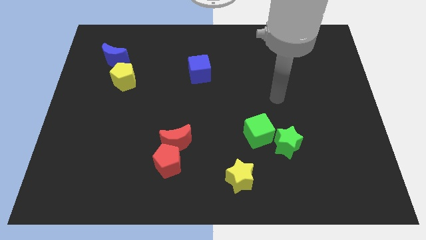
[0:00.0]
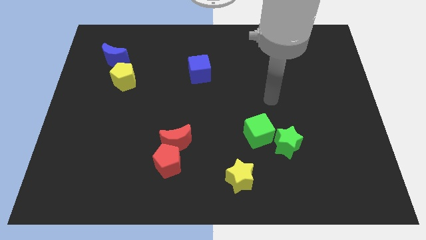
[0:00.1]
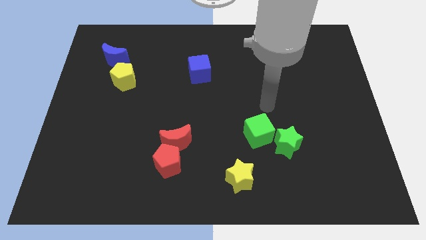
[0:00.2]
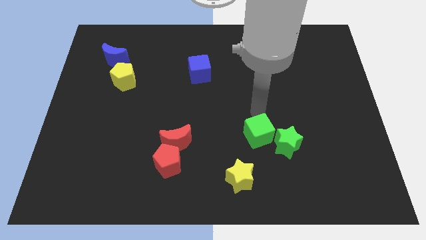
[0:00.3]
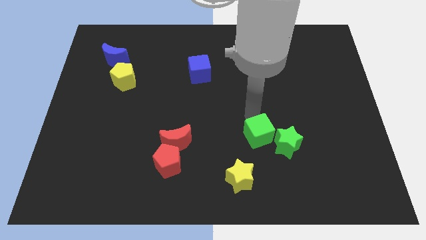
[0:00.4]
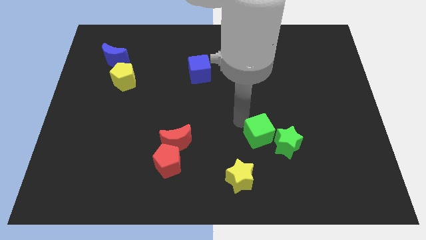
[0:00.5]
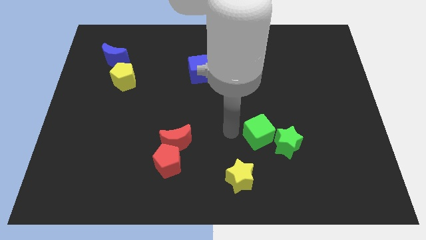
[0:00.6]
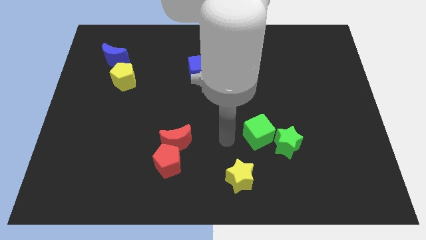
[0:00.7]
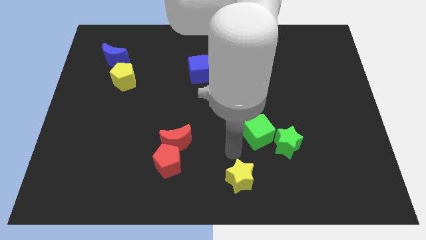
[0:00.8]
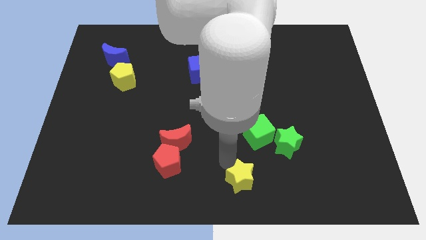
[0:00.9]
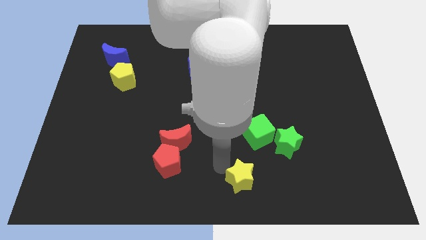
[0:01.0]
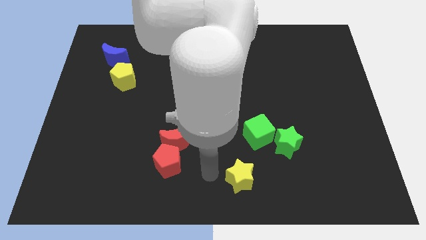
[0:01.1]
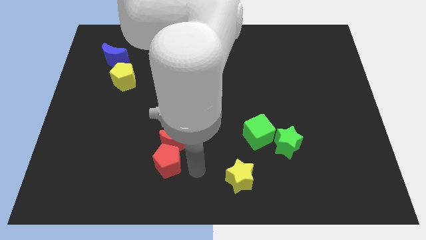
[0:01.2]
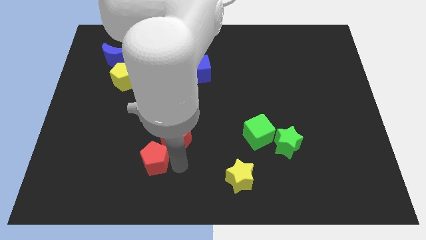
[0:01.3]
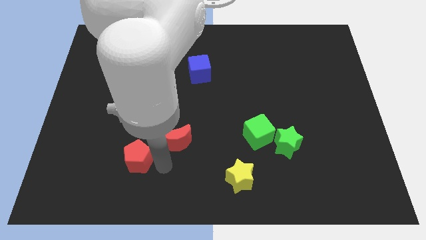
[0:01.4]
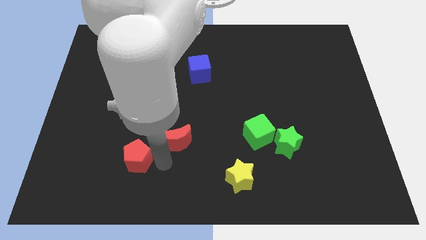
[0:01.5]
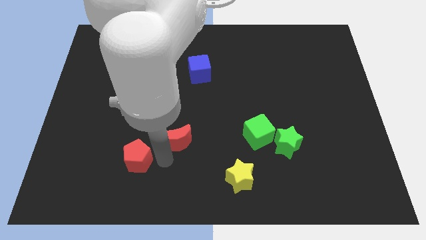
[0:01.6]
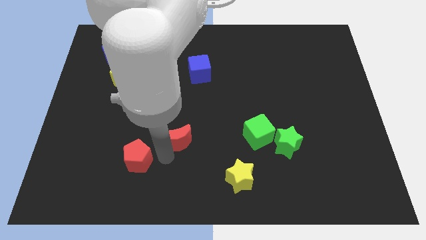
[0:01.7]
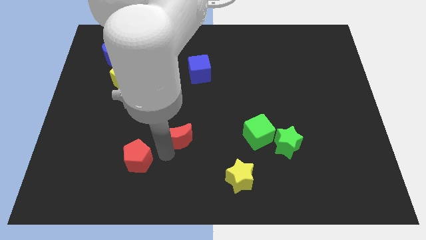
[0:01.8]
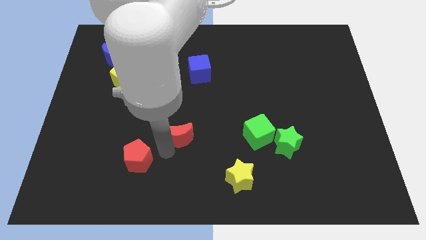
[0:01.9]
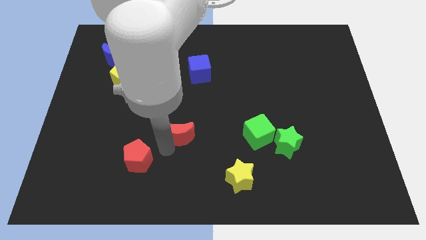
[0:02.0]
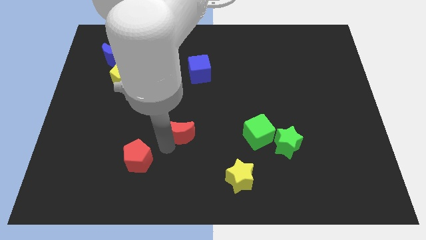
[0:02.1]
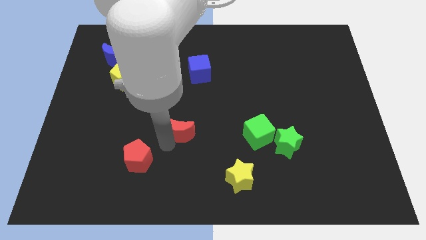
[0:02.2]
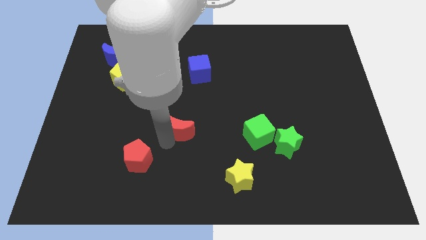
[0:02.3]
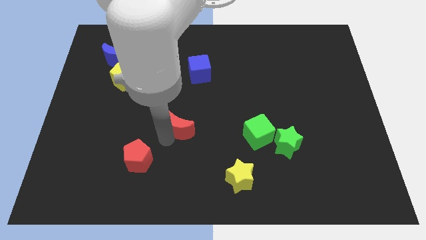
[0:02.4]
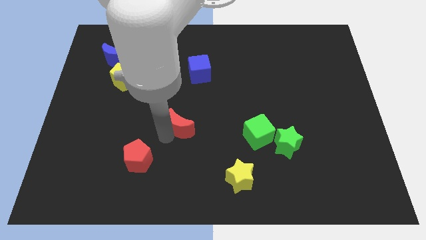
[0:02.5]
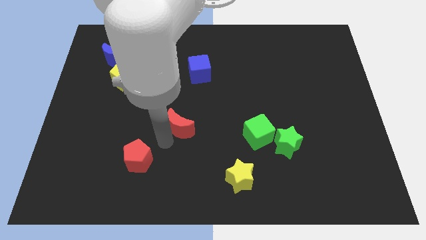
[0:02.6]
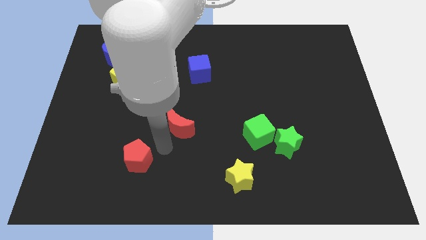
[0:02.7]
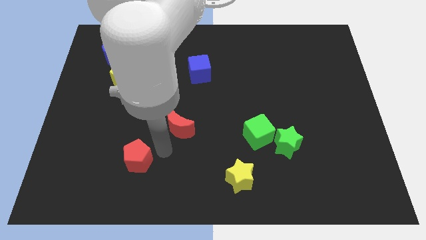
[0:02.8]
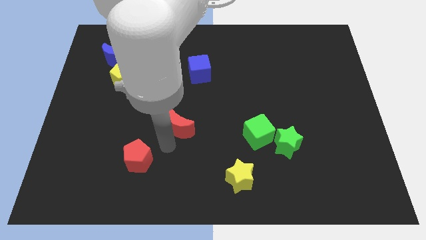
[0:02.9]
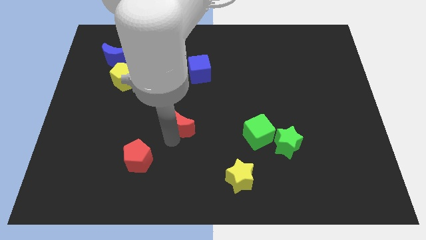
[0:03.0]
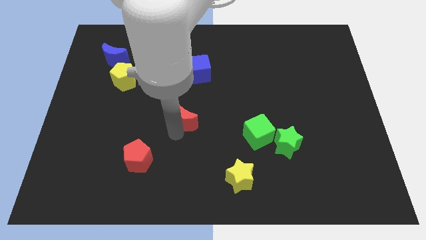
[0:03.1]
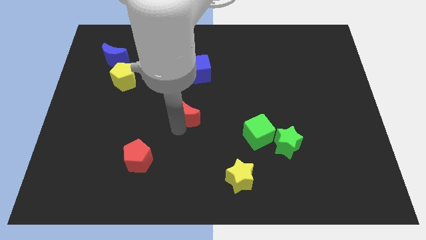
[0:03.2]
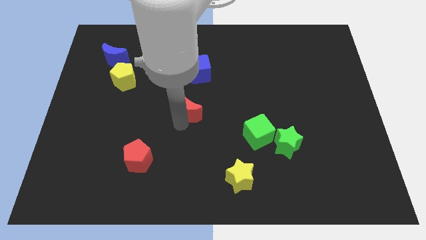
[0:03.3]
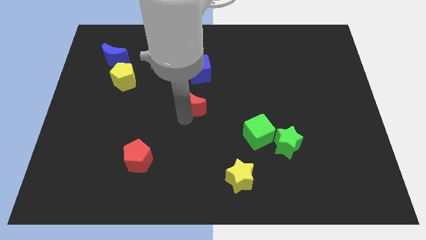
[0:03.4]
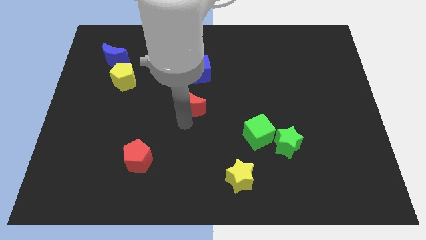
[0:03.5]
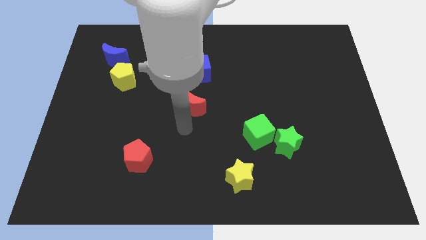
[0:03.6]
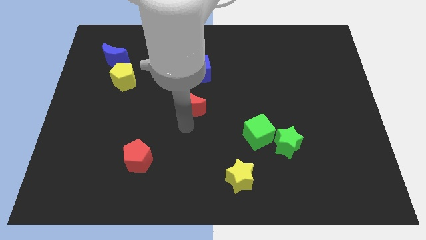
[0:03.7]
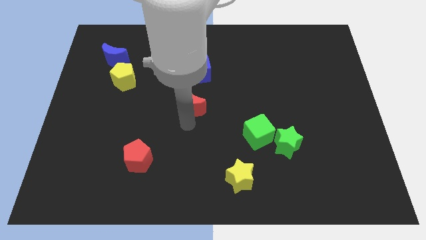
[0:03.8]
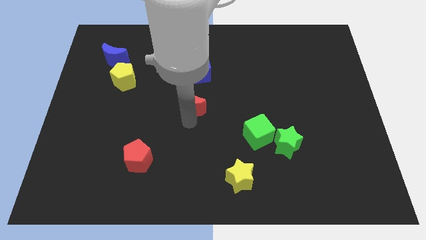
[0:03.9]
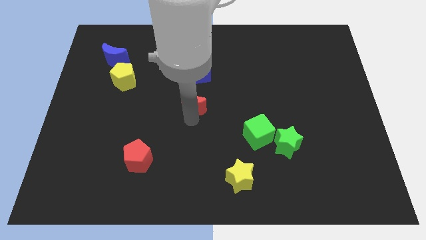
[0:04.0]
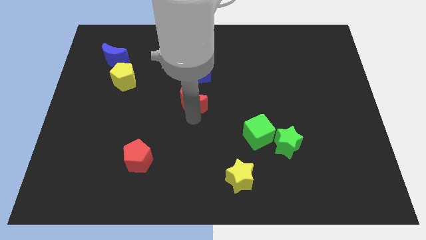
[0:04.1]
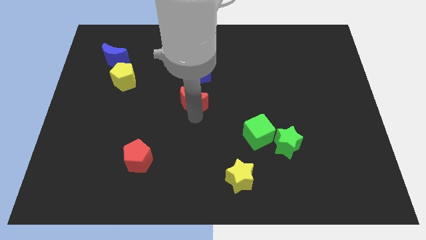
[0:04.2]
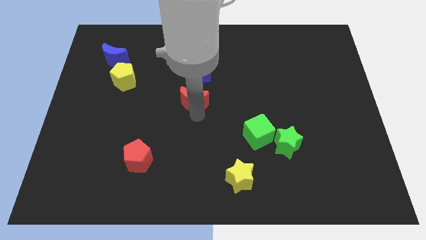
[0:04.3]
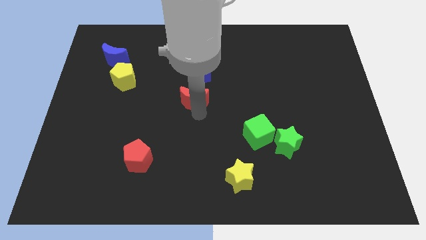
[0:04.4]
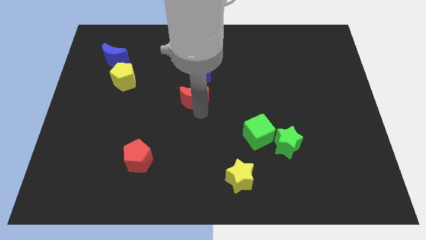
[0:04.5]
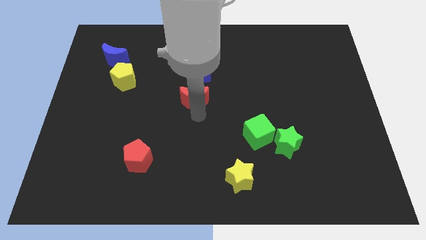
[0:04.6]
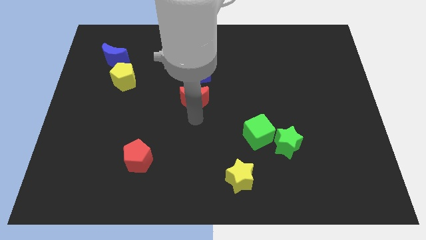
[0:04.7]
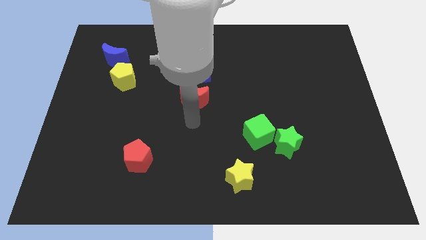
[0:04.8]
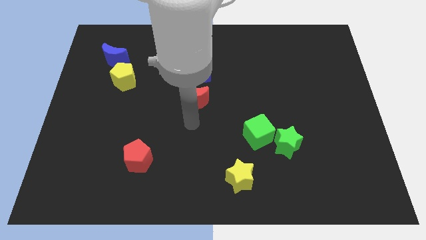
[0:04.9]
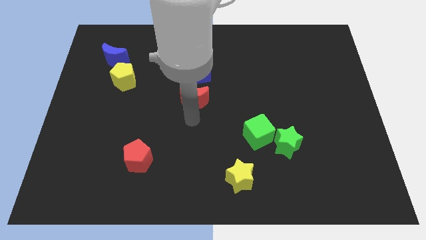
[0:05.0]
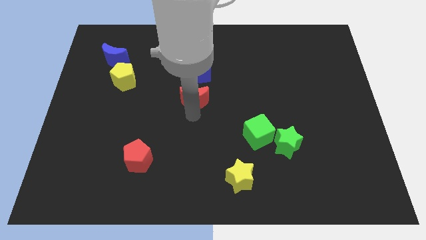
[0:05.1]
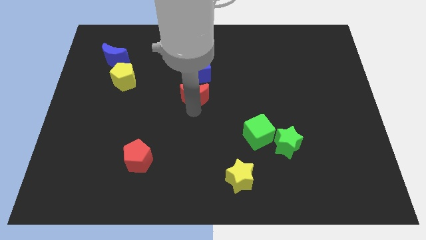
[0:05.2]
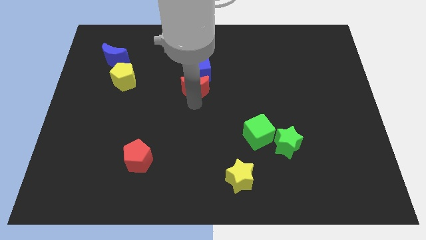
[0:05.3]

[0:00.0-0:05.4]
put the red moon towards the blue cube

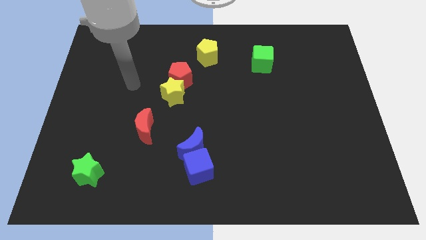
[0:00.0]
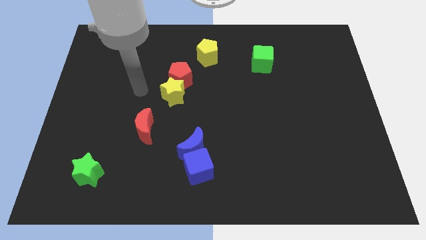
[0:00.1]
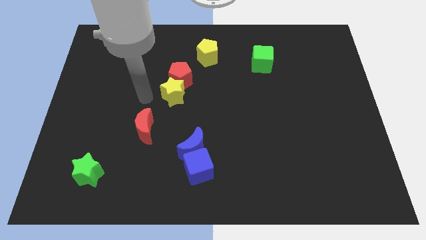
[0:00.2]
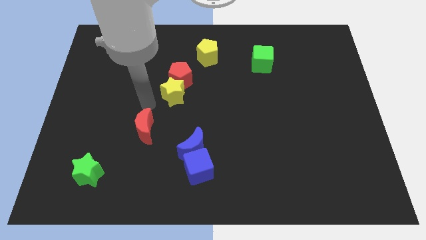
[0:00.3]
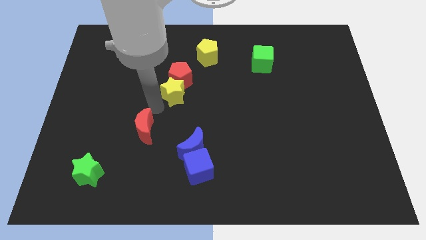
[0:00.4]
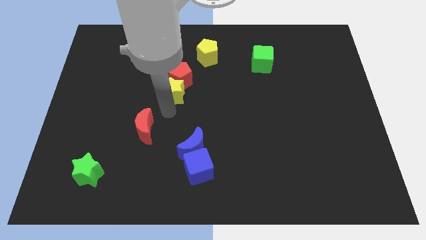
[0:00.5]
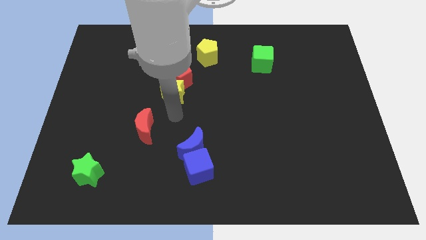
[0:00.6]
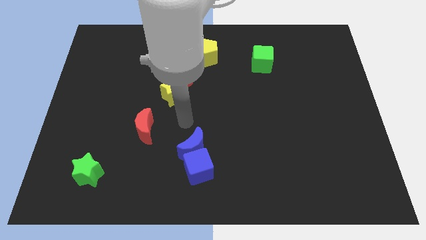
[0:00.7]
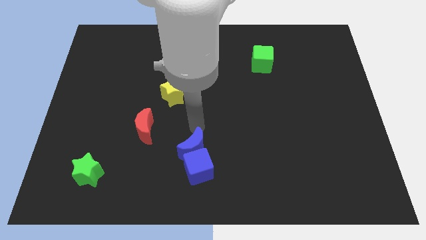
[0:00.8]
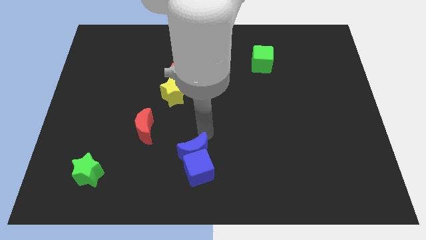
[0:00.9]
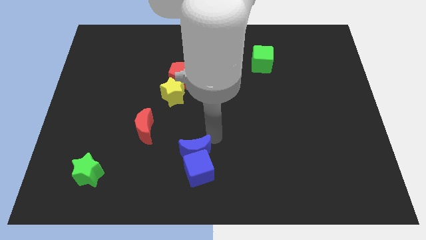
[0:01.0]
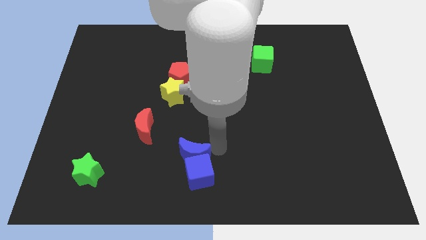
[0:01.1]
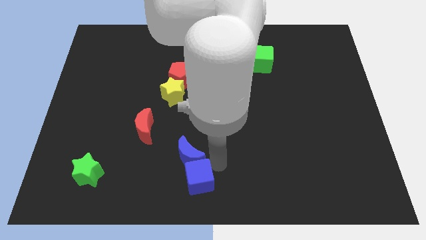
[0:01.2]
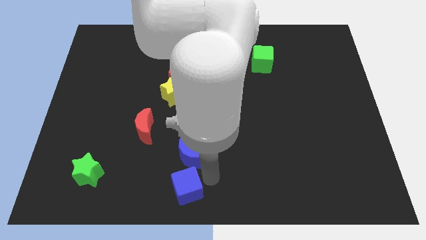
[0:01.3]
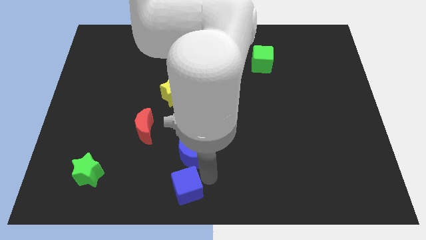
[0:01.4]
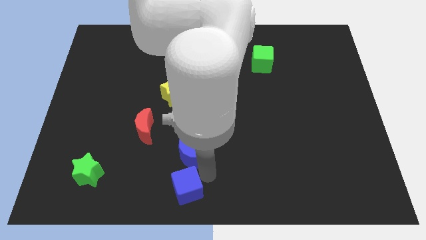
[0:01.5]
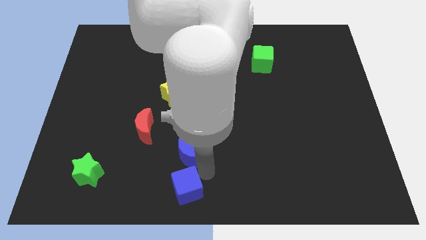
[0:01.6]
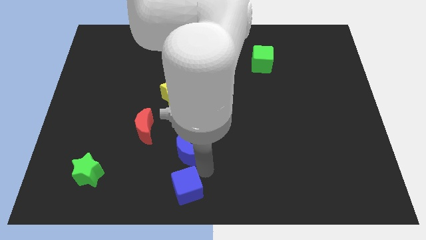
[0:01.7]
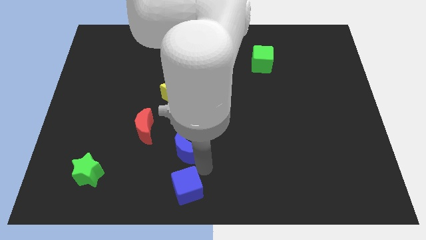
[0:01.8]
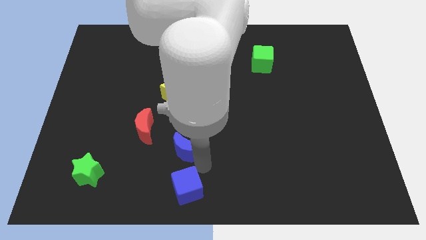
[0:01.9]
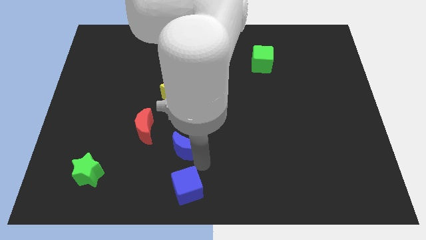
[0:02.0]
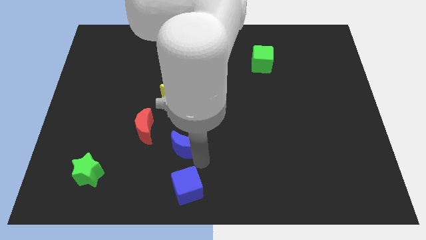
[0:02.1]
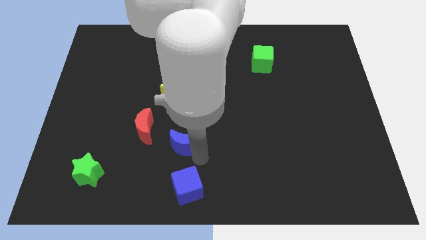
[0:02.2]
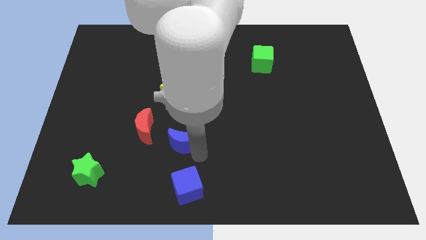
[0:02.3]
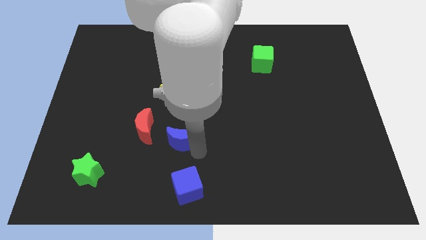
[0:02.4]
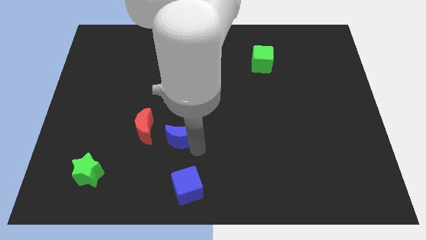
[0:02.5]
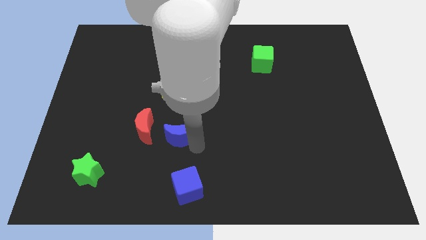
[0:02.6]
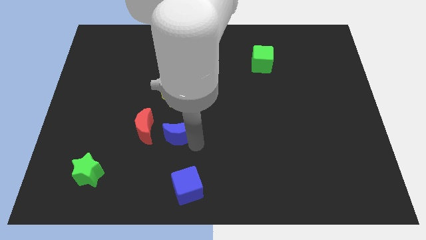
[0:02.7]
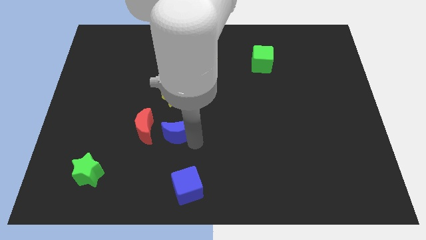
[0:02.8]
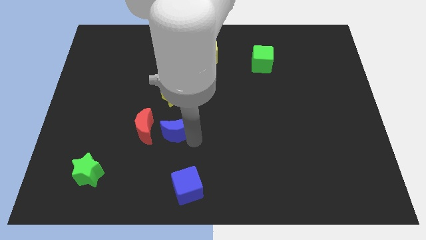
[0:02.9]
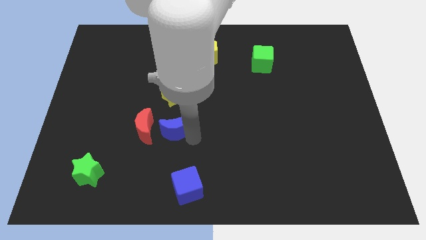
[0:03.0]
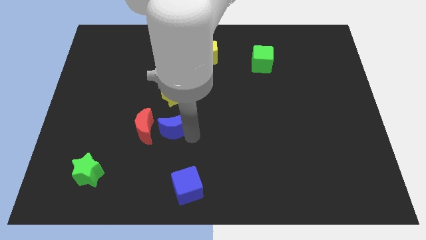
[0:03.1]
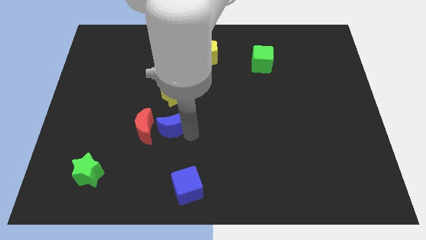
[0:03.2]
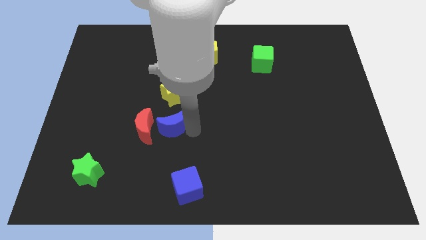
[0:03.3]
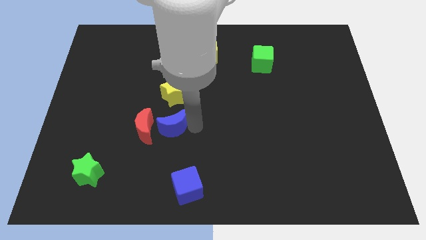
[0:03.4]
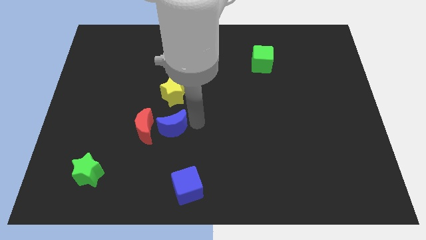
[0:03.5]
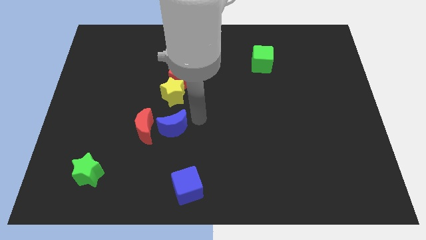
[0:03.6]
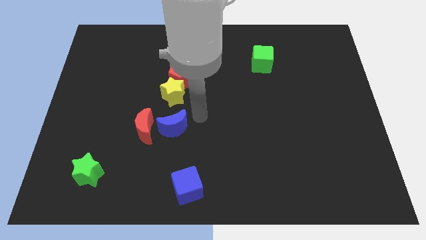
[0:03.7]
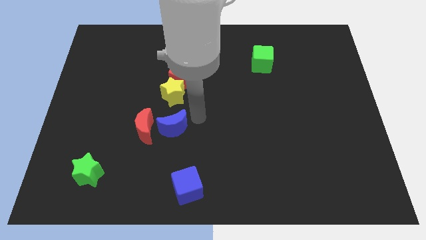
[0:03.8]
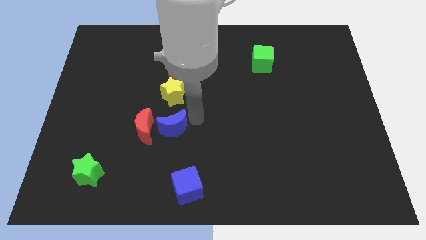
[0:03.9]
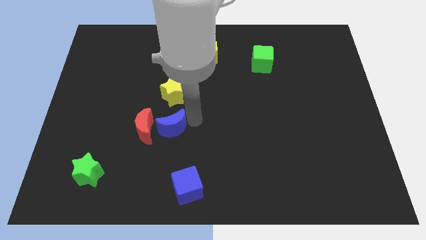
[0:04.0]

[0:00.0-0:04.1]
slide the blue moon close to the red moon
